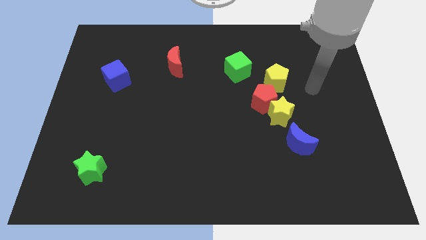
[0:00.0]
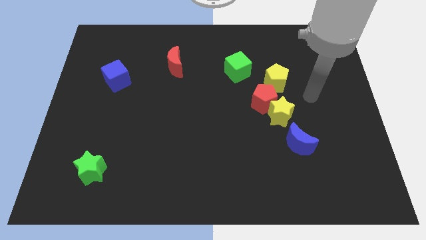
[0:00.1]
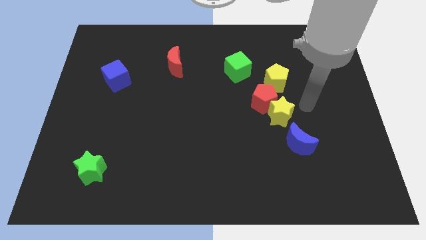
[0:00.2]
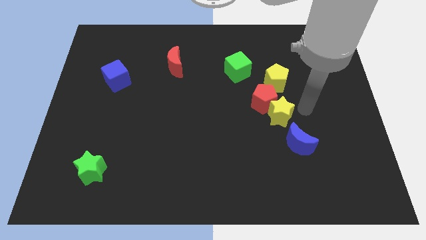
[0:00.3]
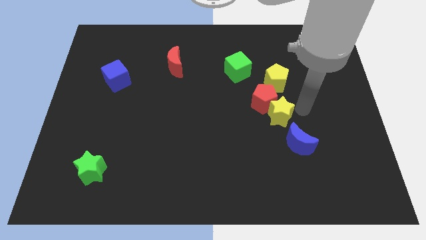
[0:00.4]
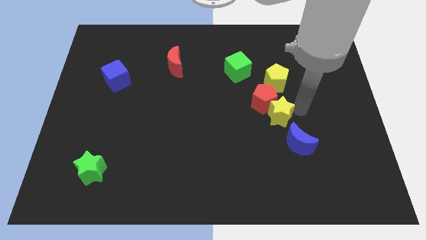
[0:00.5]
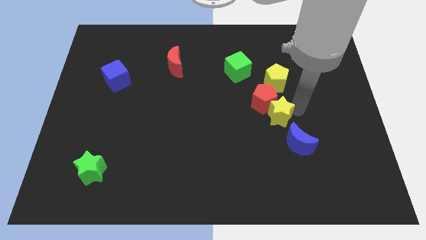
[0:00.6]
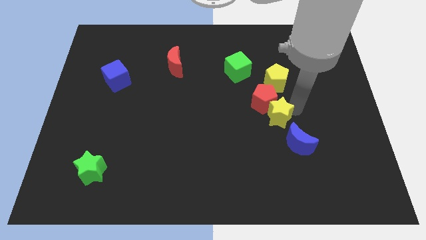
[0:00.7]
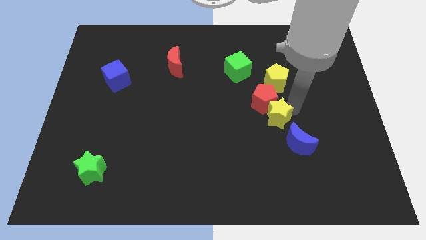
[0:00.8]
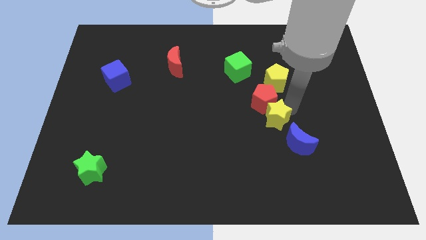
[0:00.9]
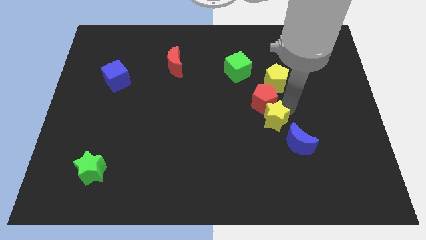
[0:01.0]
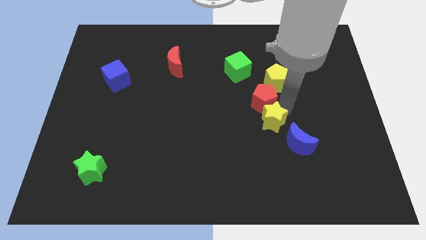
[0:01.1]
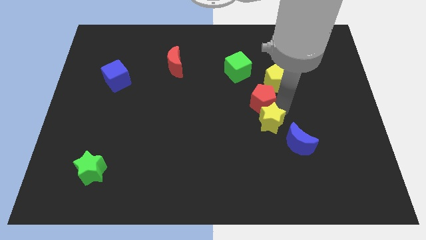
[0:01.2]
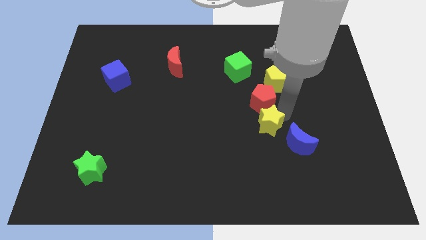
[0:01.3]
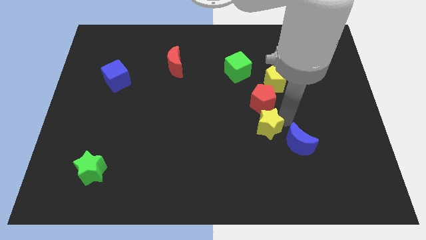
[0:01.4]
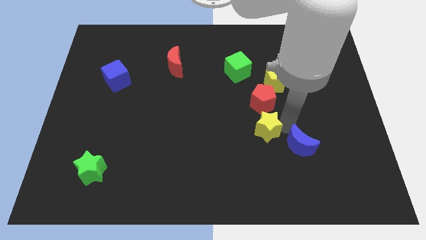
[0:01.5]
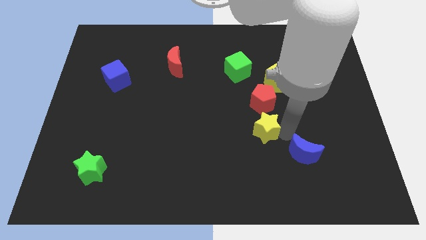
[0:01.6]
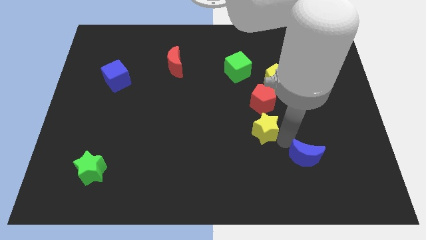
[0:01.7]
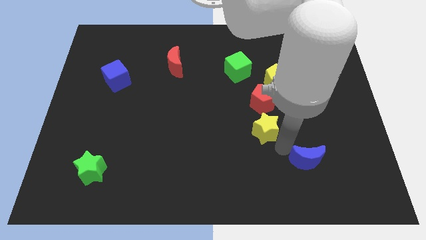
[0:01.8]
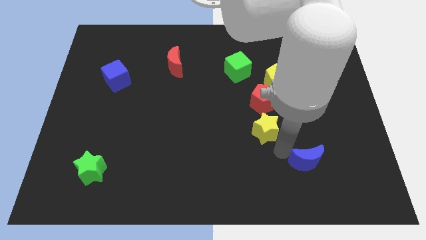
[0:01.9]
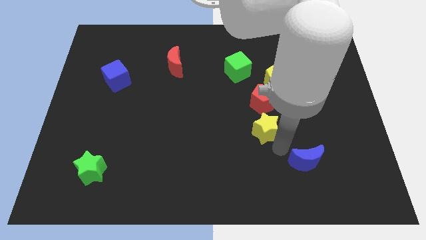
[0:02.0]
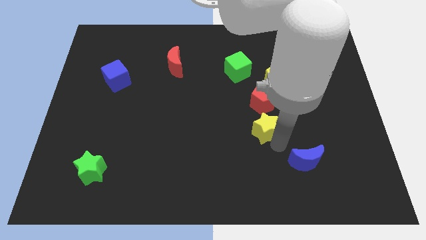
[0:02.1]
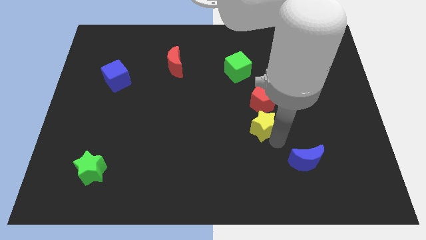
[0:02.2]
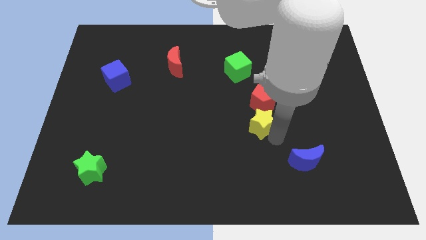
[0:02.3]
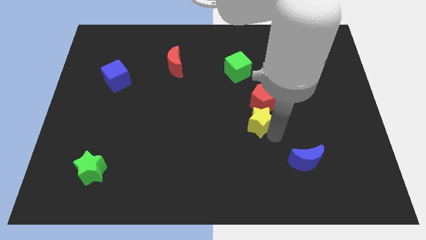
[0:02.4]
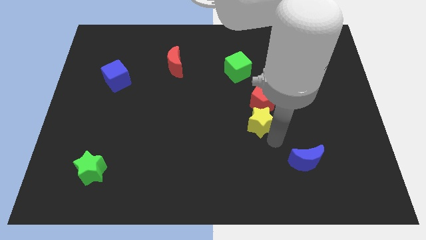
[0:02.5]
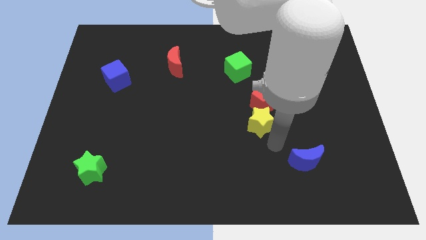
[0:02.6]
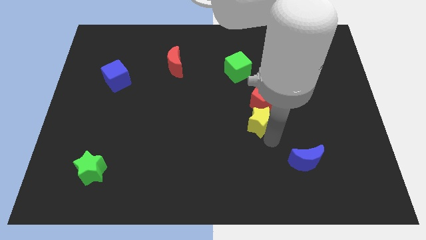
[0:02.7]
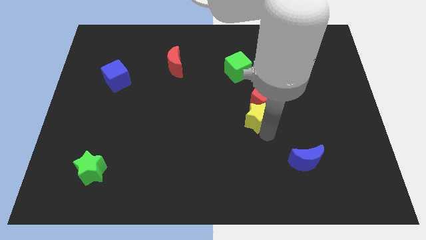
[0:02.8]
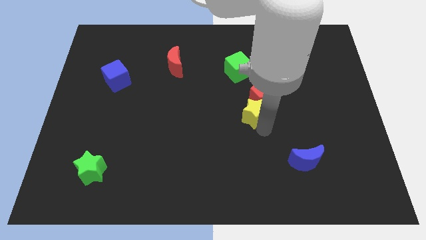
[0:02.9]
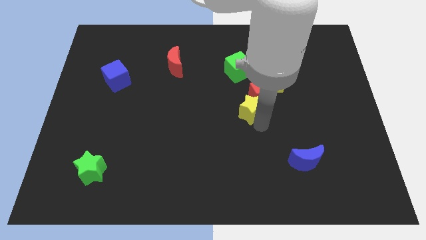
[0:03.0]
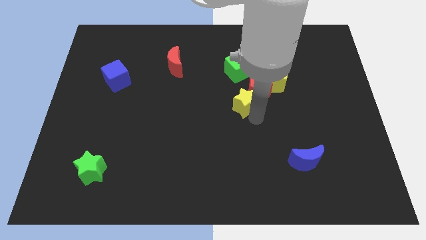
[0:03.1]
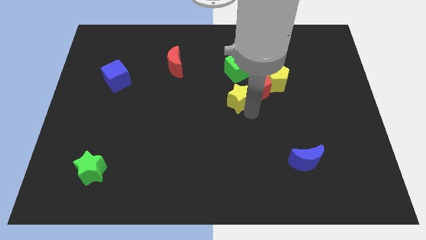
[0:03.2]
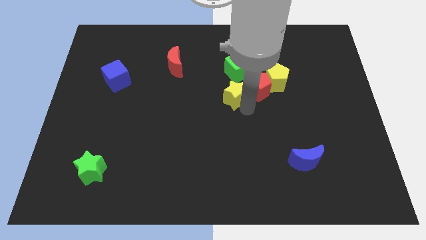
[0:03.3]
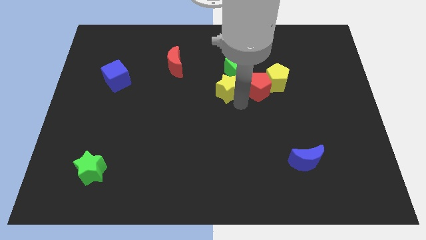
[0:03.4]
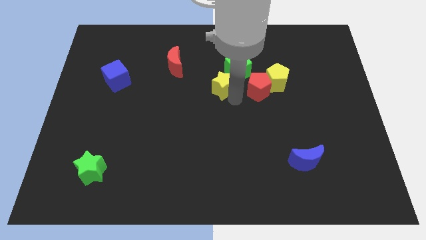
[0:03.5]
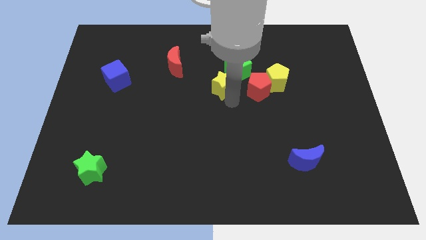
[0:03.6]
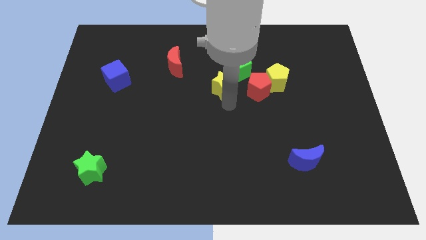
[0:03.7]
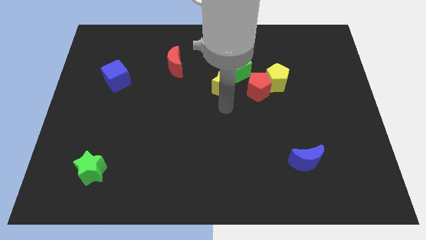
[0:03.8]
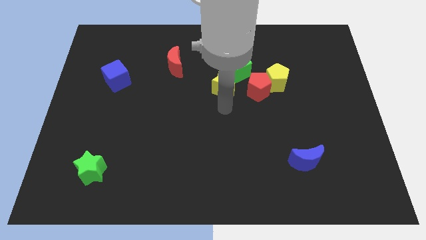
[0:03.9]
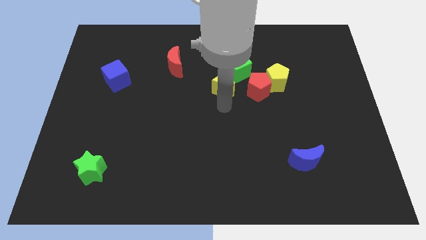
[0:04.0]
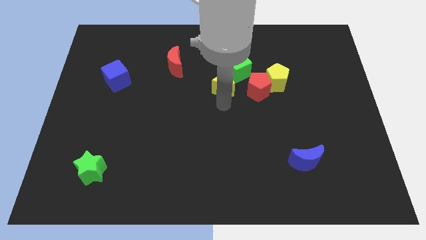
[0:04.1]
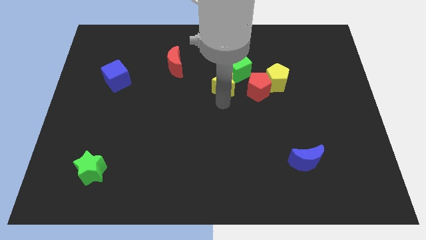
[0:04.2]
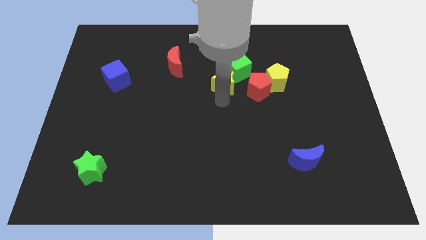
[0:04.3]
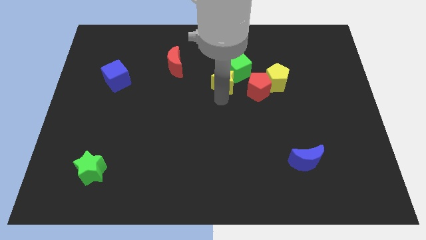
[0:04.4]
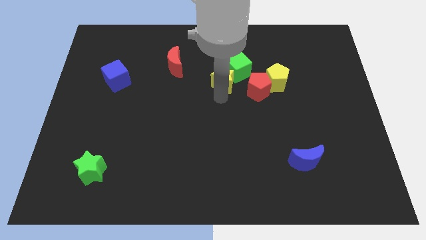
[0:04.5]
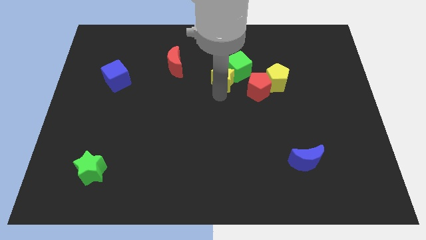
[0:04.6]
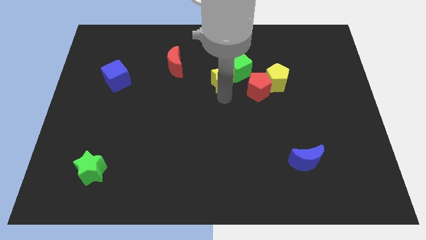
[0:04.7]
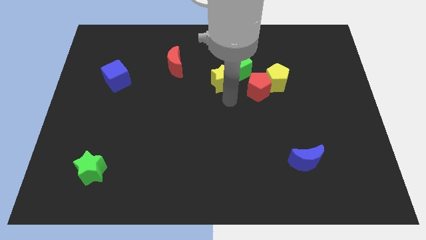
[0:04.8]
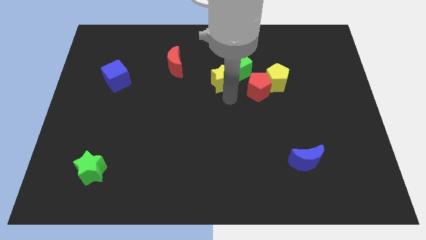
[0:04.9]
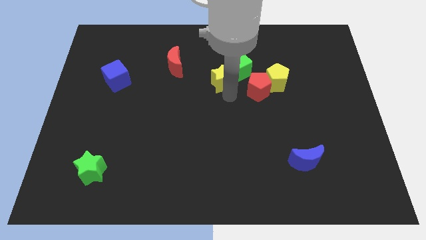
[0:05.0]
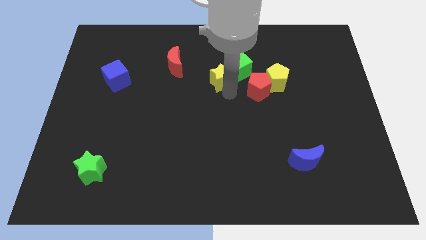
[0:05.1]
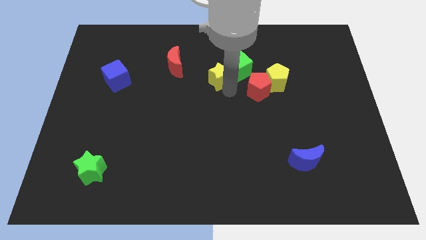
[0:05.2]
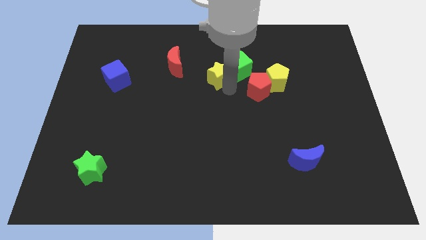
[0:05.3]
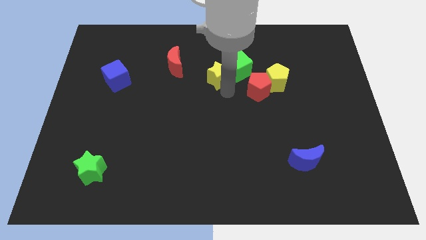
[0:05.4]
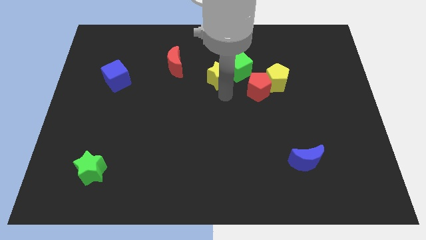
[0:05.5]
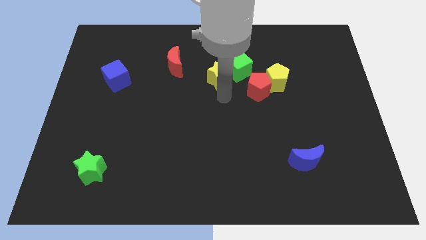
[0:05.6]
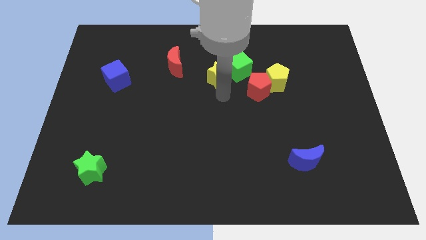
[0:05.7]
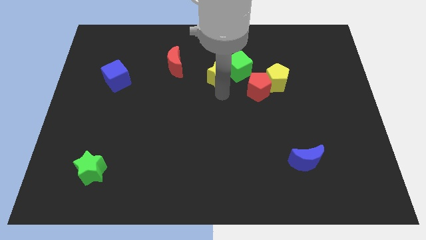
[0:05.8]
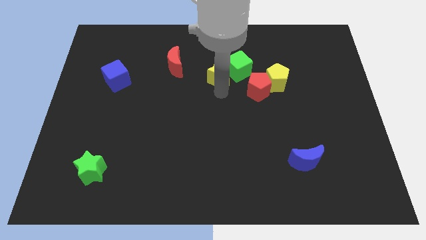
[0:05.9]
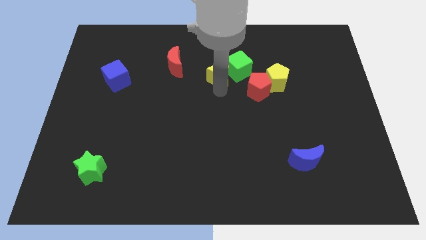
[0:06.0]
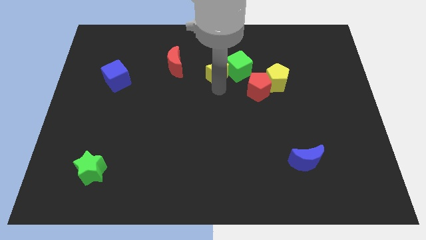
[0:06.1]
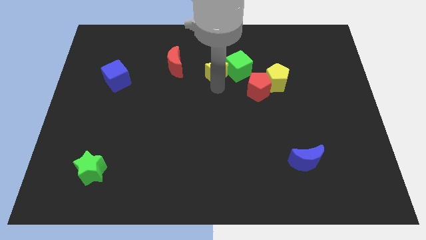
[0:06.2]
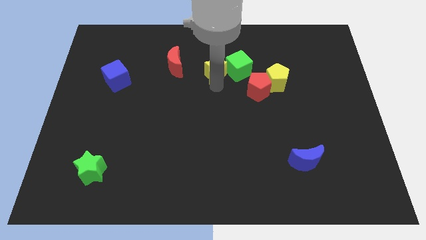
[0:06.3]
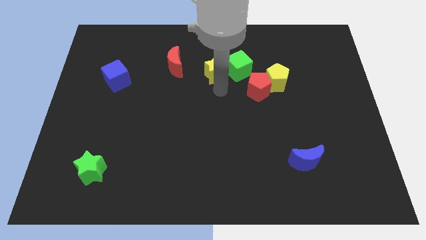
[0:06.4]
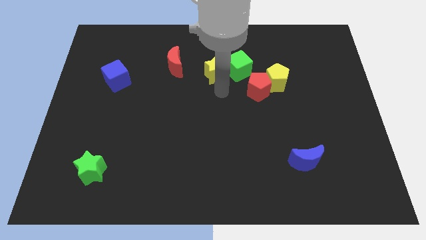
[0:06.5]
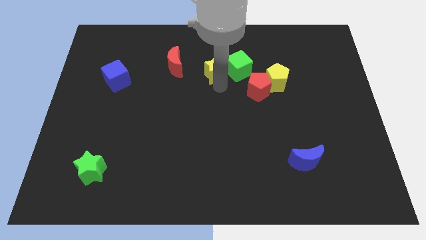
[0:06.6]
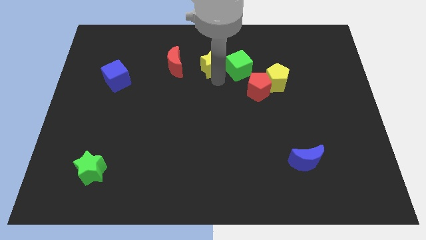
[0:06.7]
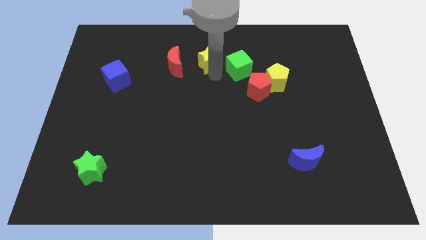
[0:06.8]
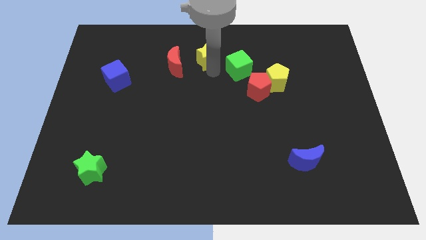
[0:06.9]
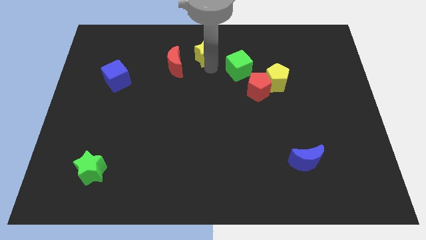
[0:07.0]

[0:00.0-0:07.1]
push the yellow star to the towards your base

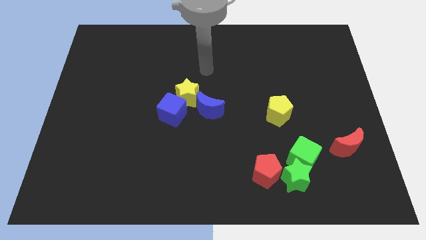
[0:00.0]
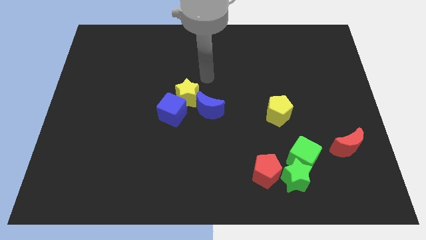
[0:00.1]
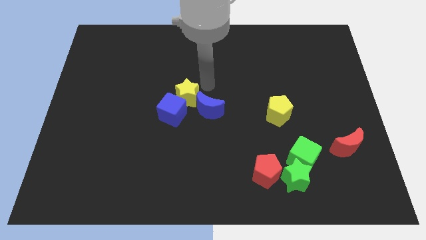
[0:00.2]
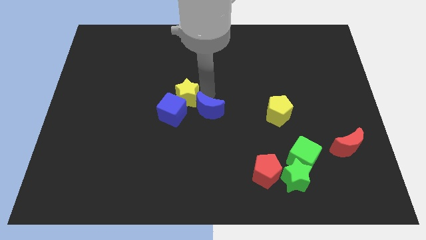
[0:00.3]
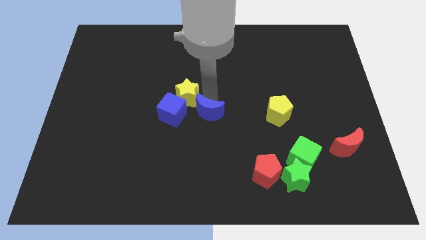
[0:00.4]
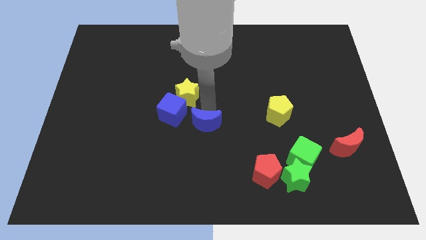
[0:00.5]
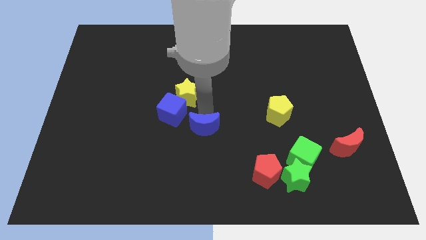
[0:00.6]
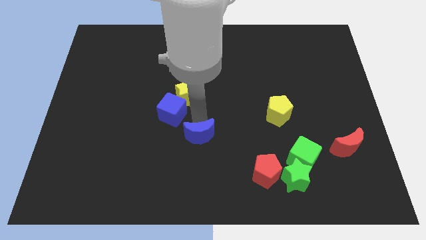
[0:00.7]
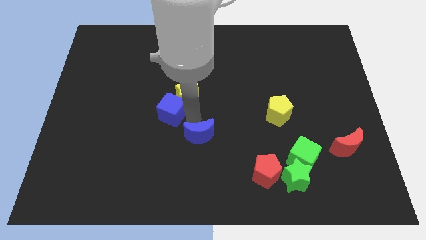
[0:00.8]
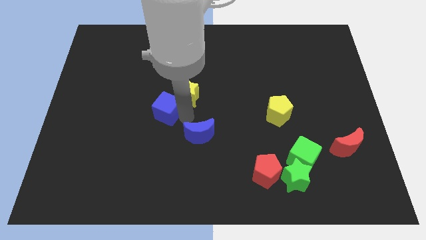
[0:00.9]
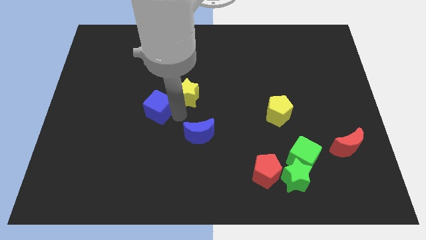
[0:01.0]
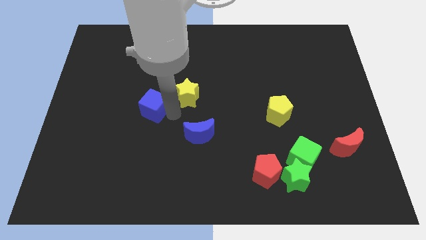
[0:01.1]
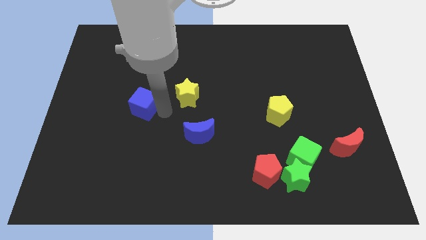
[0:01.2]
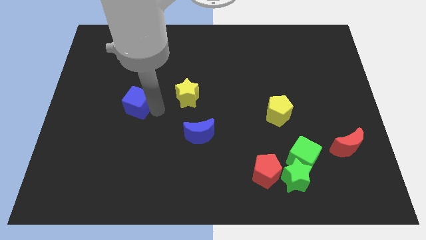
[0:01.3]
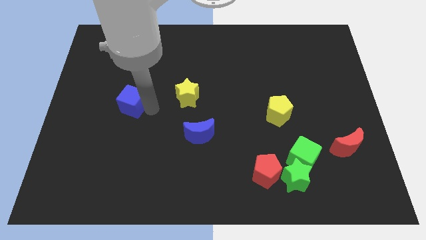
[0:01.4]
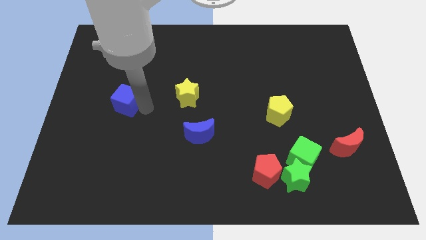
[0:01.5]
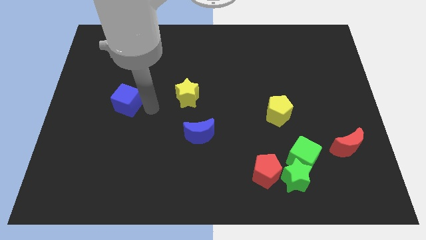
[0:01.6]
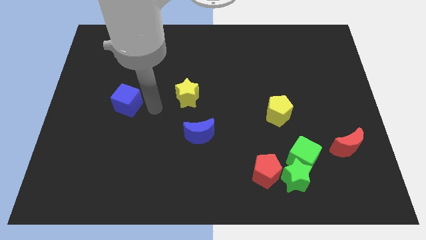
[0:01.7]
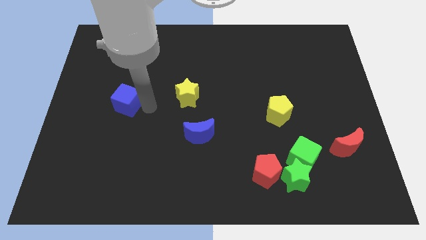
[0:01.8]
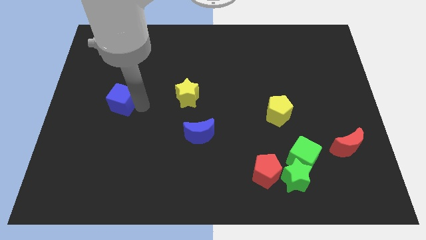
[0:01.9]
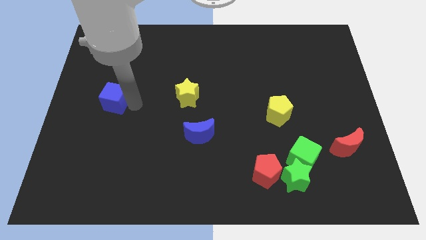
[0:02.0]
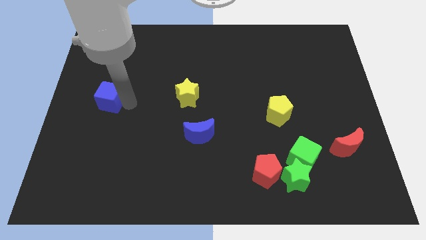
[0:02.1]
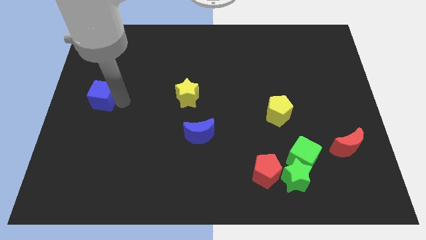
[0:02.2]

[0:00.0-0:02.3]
slide the blue cube to the center left
